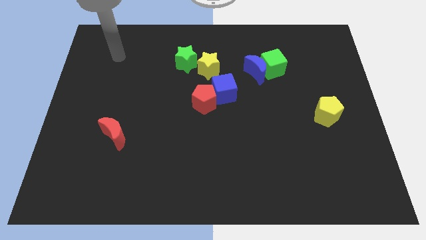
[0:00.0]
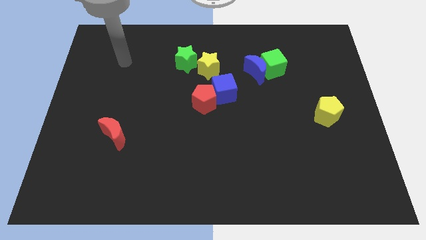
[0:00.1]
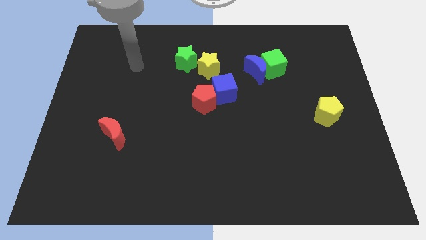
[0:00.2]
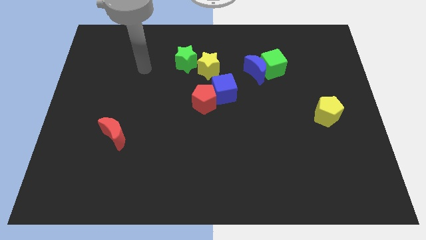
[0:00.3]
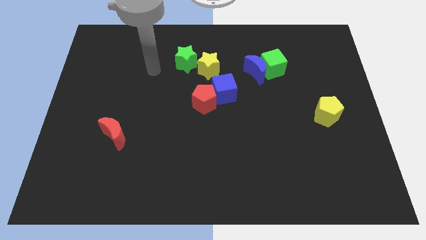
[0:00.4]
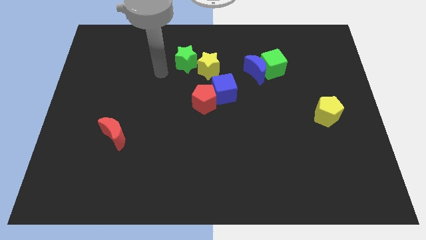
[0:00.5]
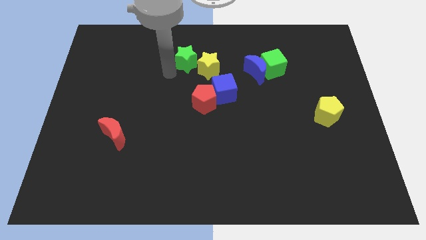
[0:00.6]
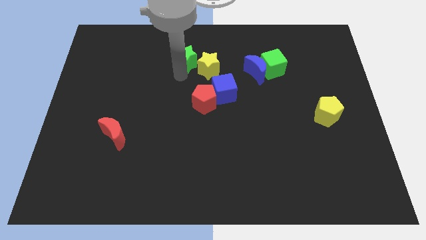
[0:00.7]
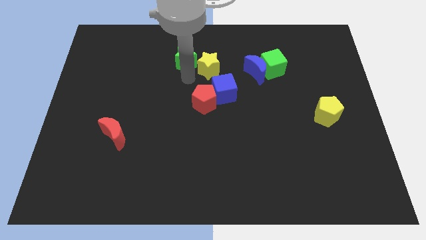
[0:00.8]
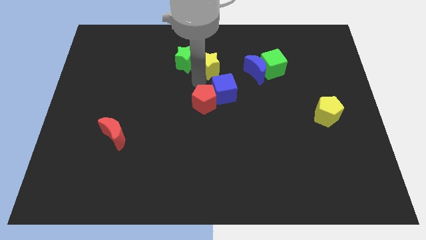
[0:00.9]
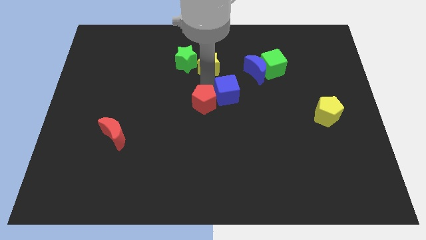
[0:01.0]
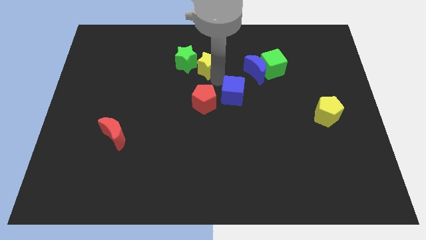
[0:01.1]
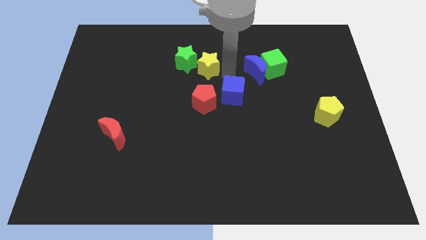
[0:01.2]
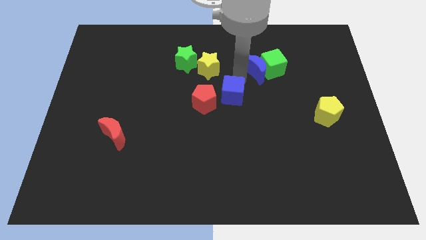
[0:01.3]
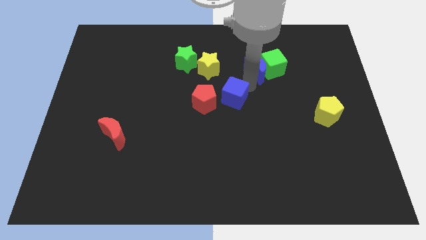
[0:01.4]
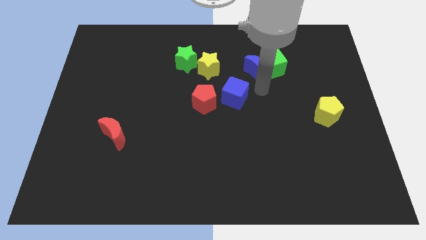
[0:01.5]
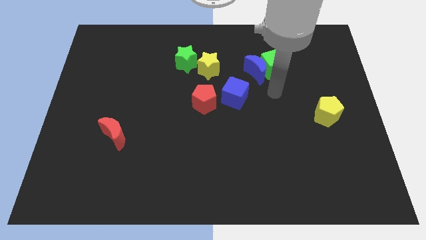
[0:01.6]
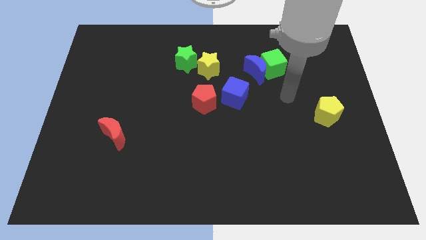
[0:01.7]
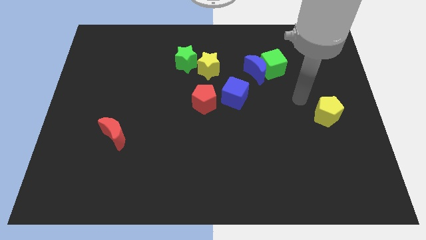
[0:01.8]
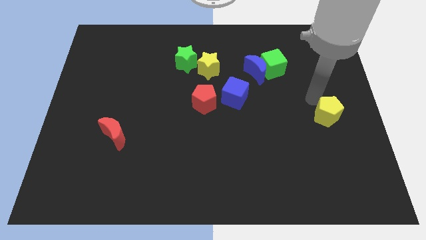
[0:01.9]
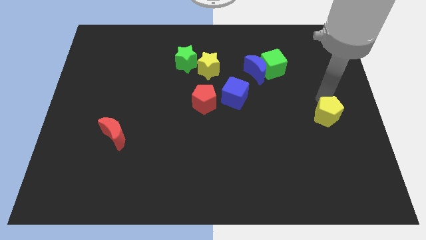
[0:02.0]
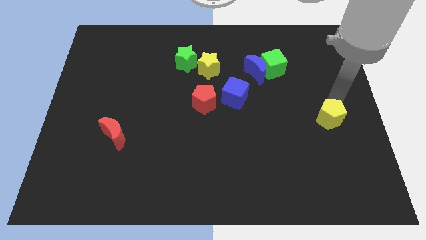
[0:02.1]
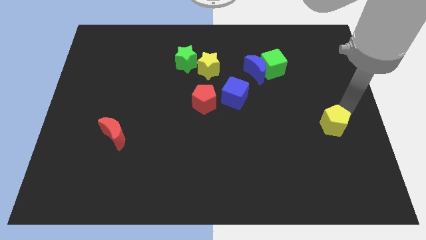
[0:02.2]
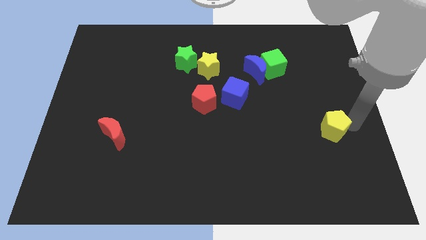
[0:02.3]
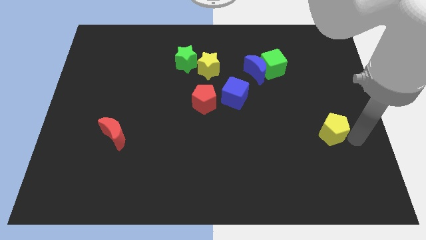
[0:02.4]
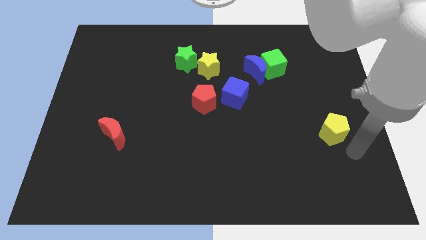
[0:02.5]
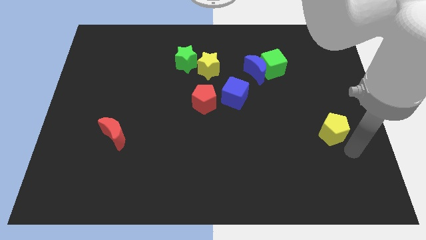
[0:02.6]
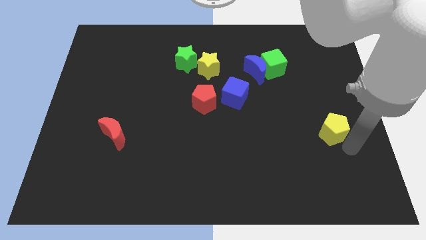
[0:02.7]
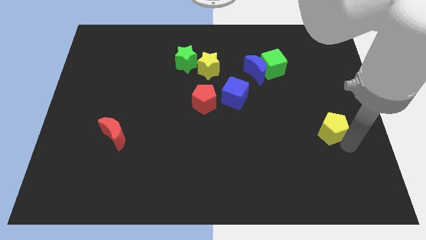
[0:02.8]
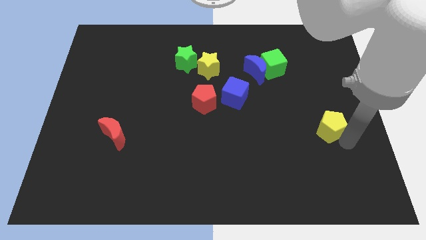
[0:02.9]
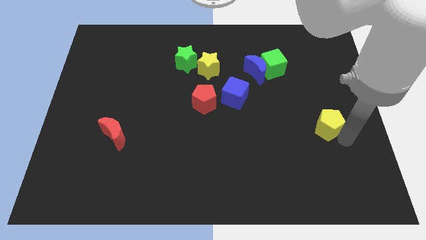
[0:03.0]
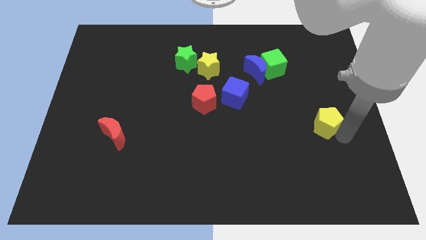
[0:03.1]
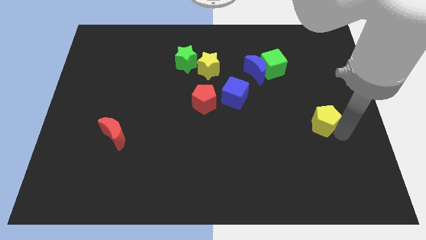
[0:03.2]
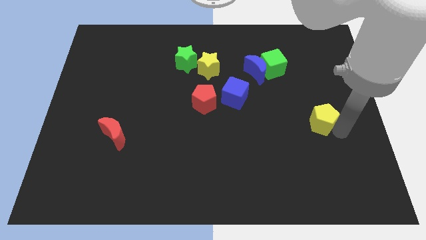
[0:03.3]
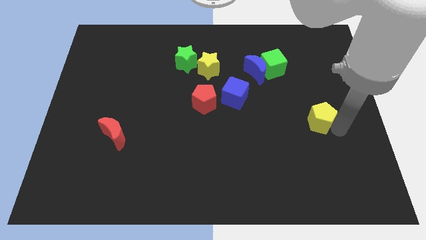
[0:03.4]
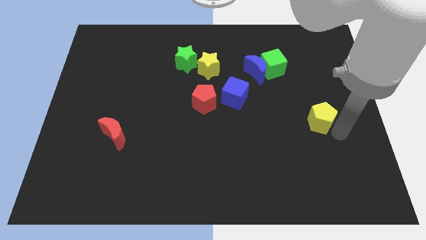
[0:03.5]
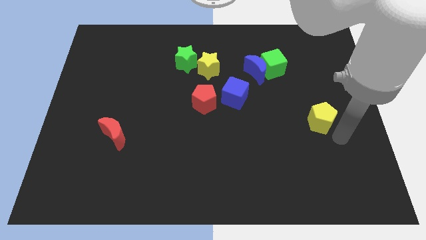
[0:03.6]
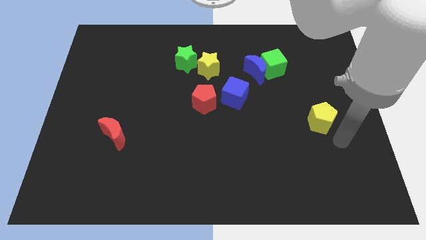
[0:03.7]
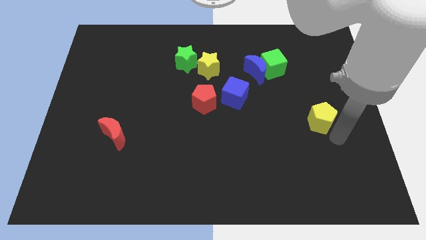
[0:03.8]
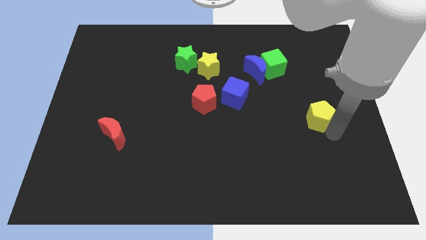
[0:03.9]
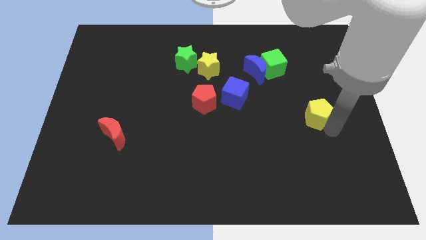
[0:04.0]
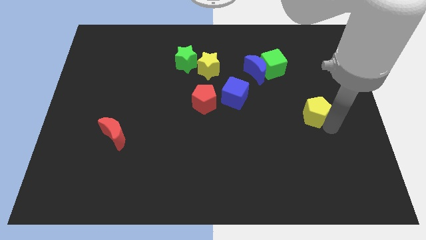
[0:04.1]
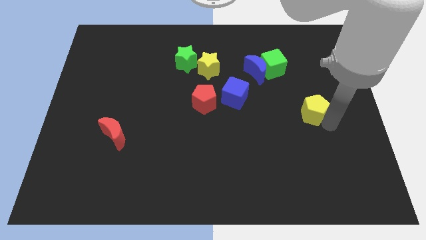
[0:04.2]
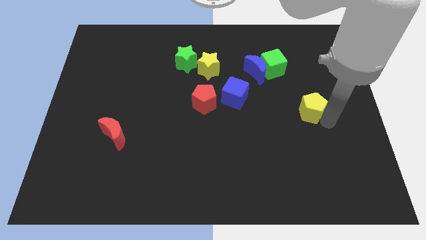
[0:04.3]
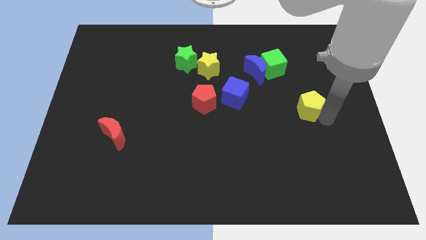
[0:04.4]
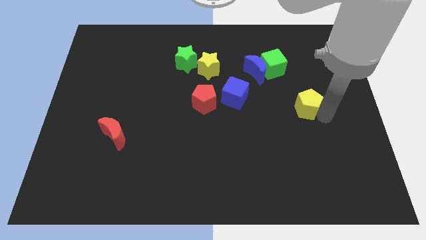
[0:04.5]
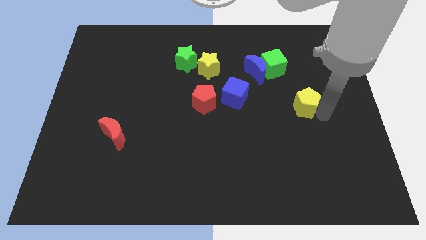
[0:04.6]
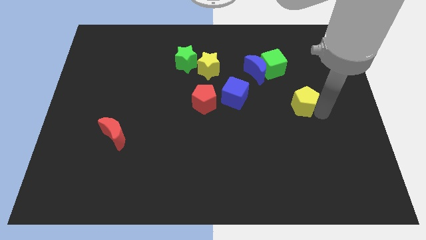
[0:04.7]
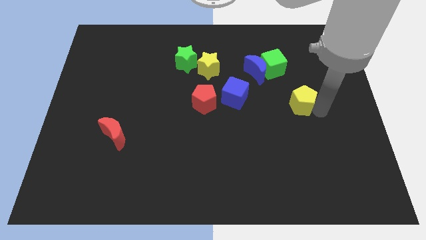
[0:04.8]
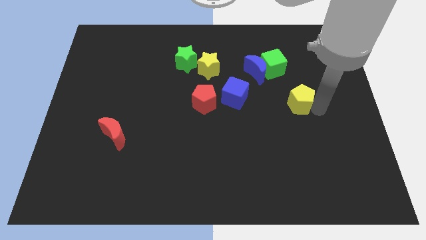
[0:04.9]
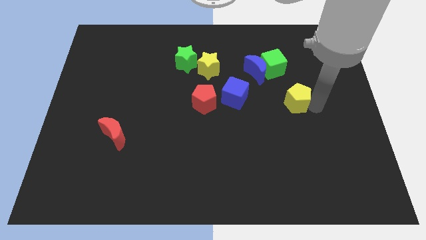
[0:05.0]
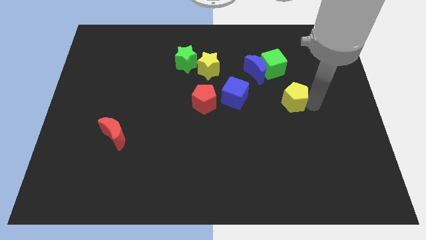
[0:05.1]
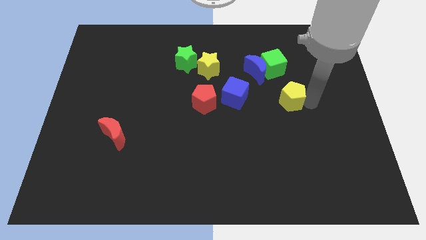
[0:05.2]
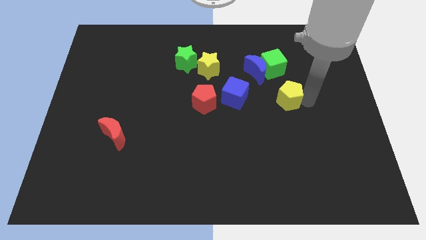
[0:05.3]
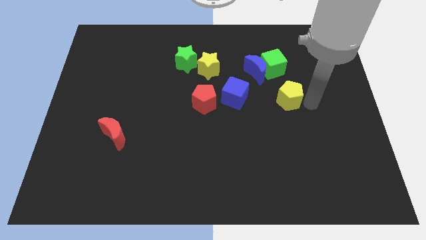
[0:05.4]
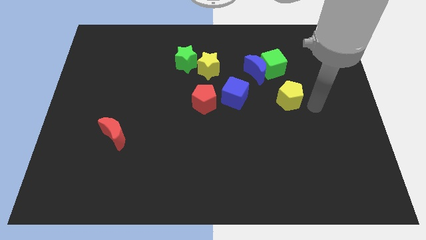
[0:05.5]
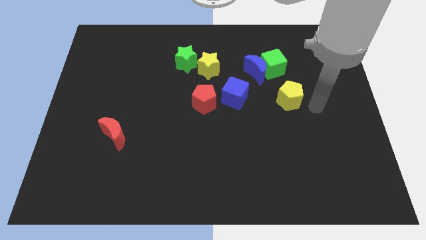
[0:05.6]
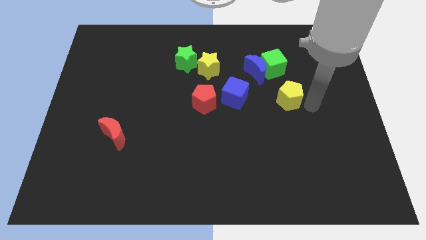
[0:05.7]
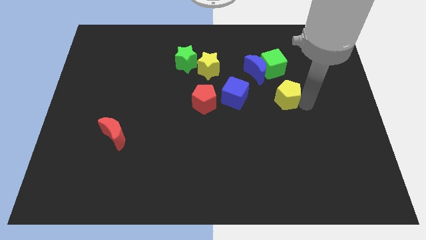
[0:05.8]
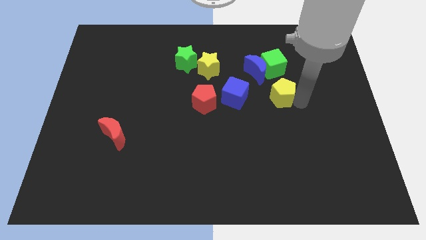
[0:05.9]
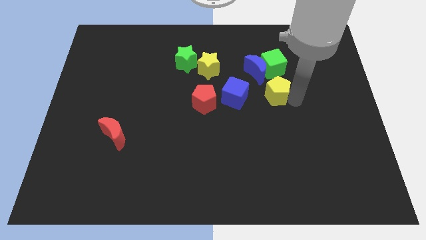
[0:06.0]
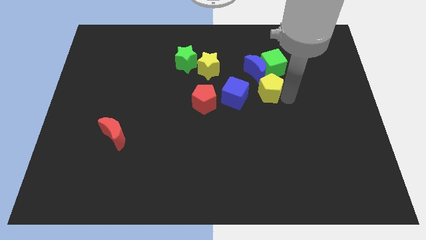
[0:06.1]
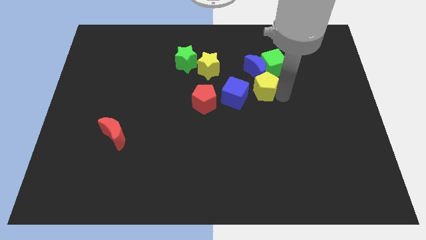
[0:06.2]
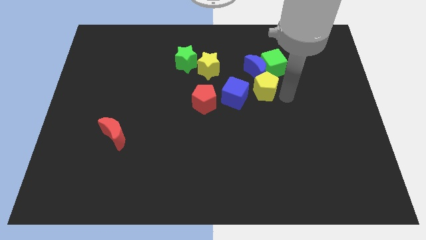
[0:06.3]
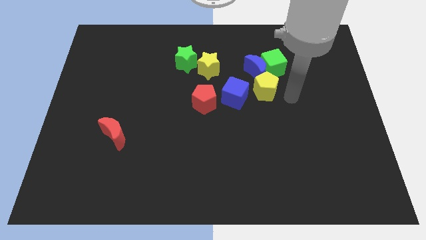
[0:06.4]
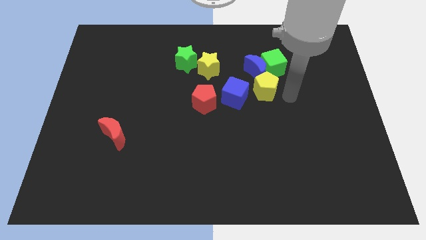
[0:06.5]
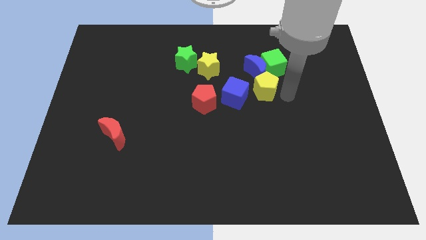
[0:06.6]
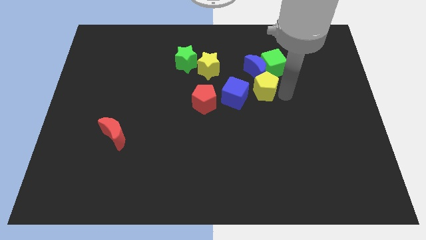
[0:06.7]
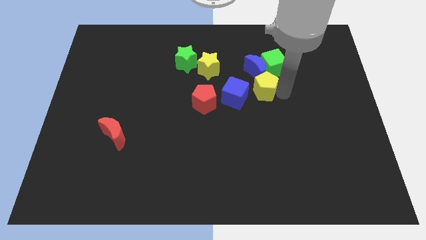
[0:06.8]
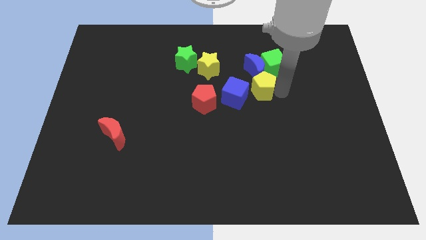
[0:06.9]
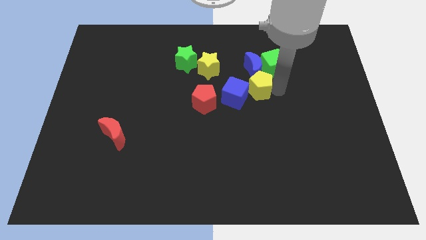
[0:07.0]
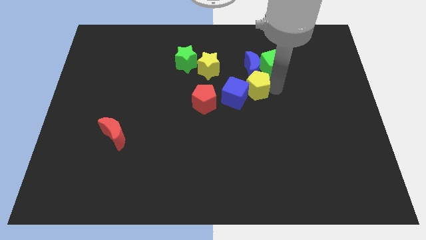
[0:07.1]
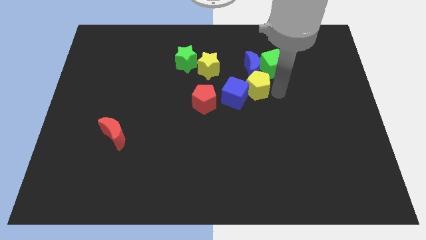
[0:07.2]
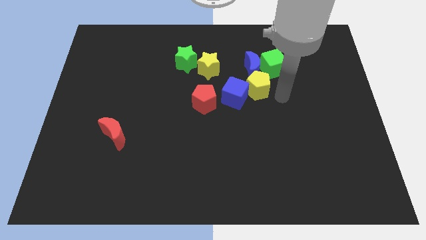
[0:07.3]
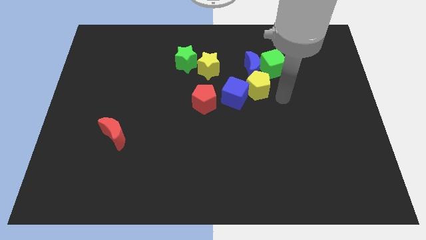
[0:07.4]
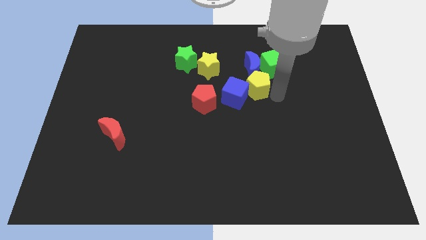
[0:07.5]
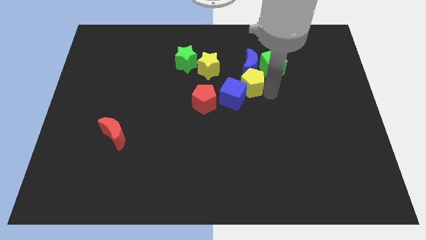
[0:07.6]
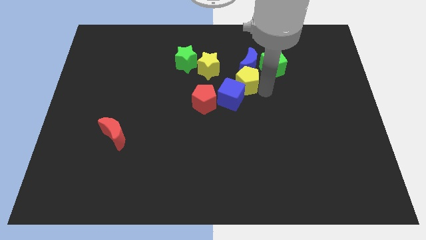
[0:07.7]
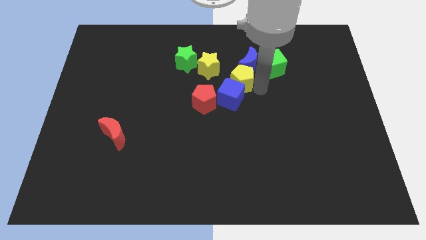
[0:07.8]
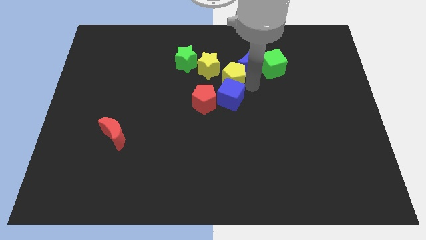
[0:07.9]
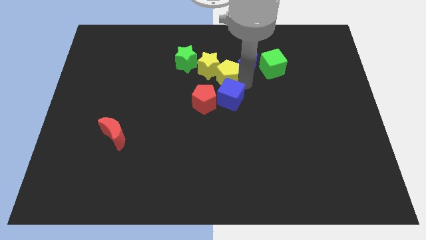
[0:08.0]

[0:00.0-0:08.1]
slide the yellow pentagon next to the yellow star
